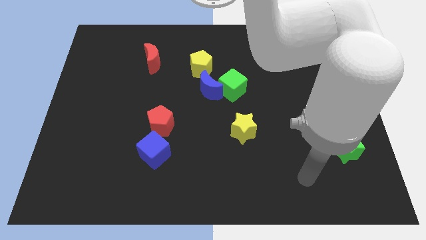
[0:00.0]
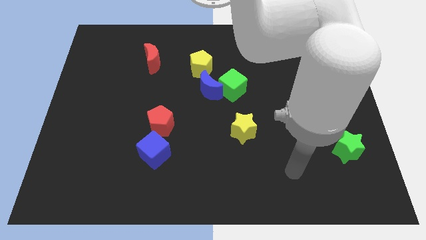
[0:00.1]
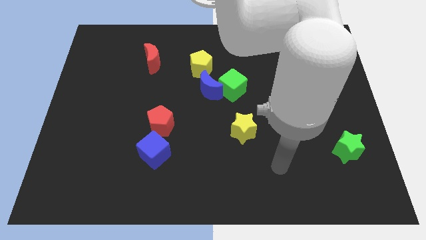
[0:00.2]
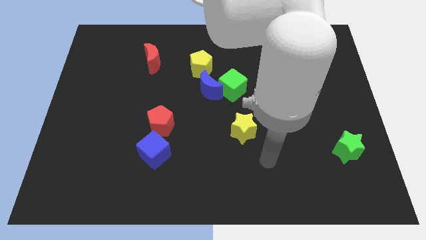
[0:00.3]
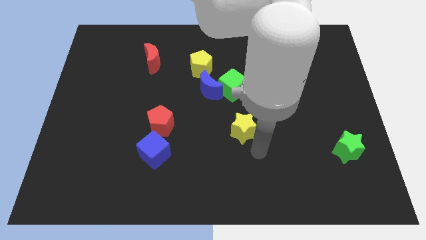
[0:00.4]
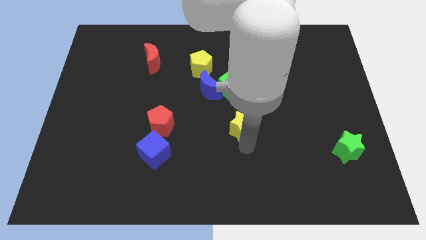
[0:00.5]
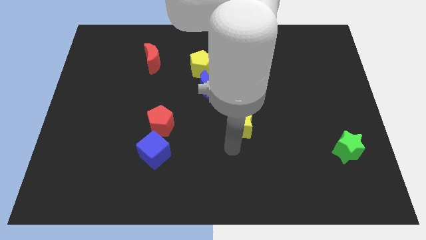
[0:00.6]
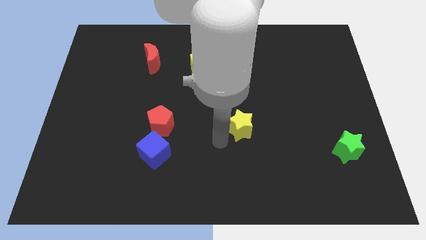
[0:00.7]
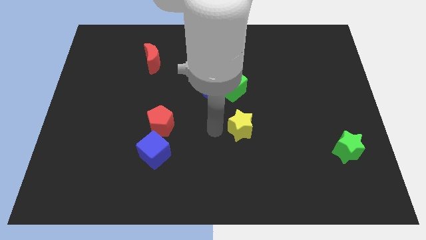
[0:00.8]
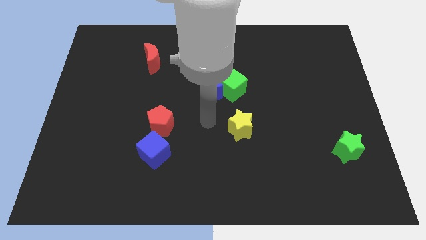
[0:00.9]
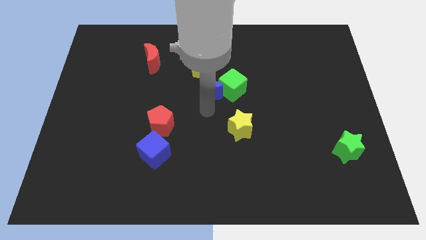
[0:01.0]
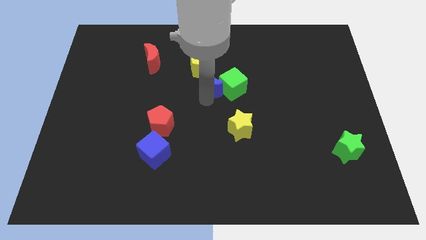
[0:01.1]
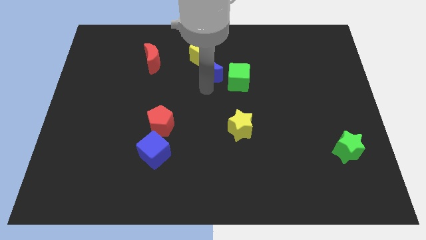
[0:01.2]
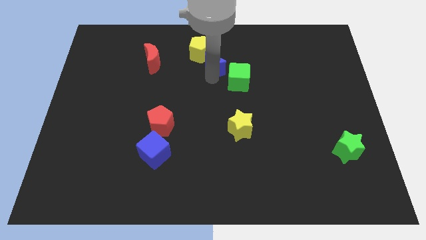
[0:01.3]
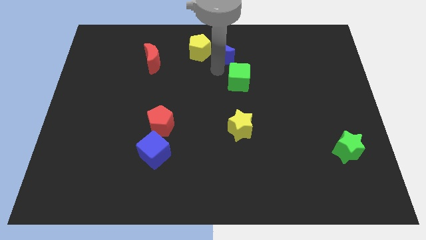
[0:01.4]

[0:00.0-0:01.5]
pull the green cube apart from the blue moon

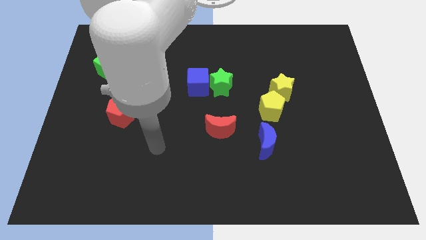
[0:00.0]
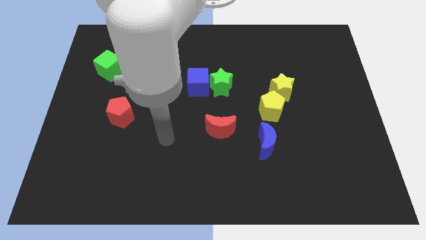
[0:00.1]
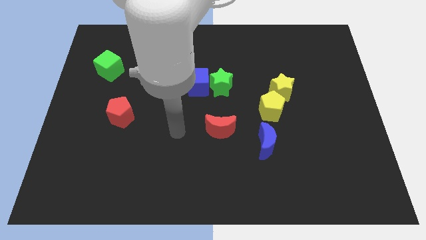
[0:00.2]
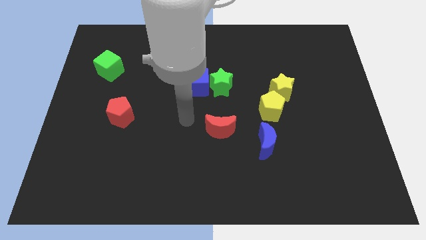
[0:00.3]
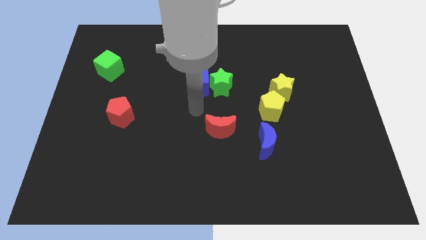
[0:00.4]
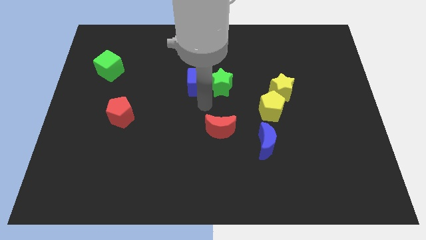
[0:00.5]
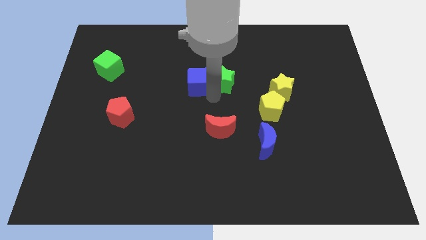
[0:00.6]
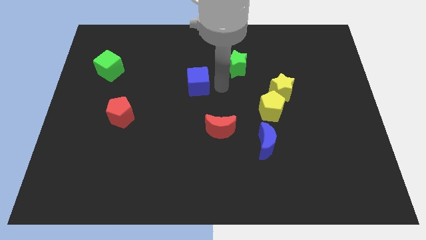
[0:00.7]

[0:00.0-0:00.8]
separate the blue cube from the green star

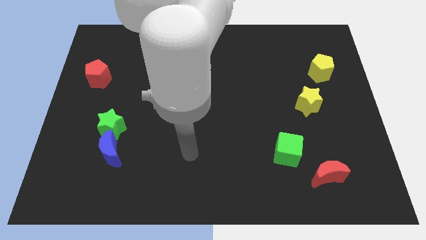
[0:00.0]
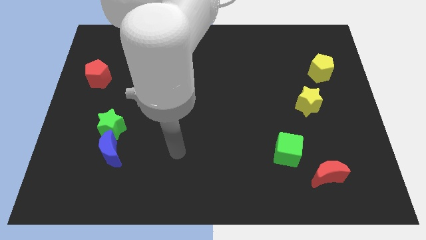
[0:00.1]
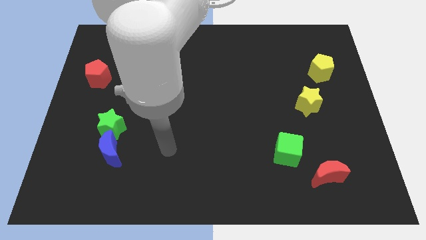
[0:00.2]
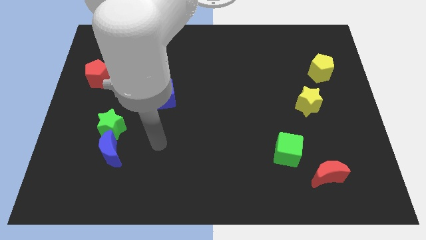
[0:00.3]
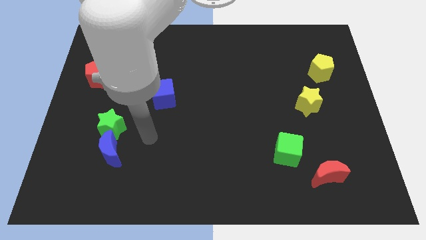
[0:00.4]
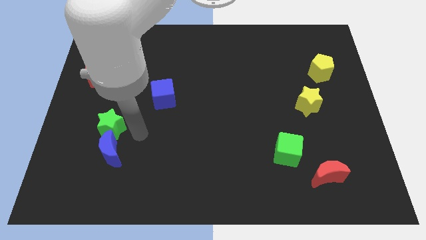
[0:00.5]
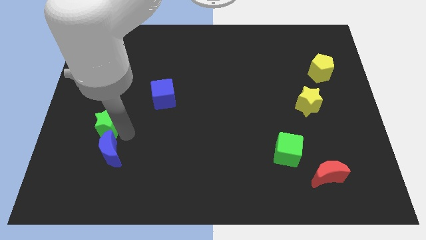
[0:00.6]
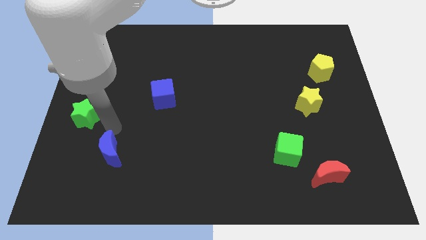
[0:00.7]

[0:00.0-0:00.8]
move the blue moon away from the green star

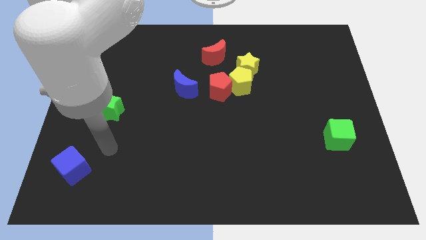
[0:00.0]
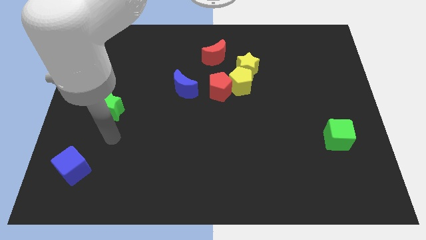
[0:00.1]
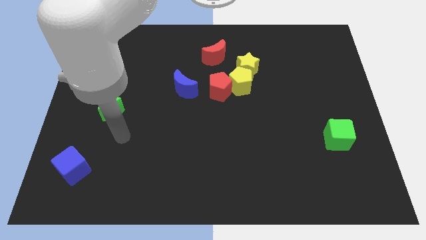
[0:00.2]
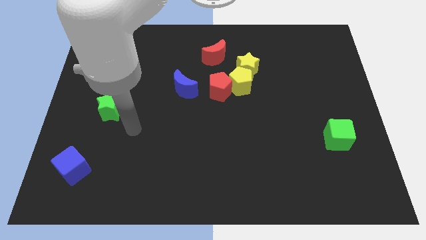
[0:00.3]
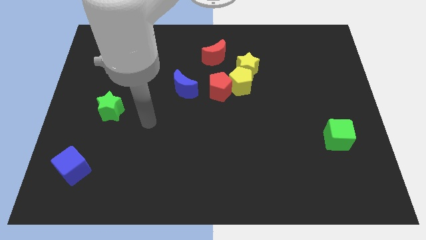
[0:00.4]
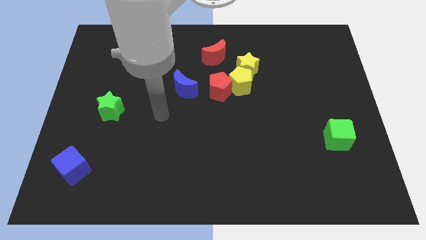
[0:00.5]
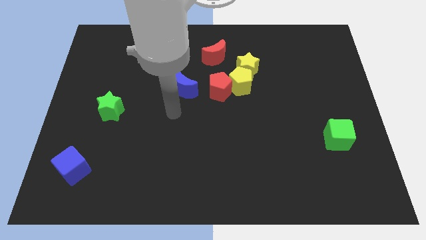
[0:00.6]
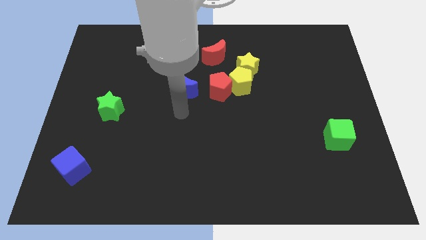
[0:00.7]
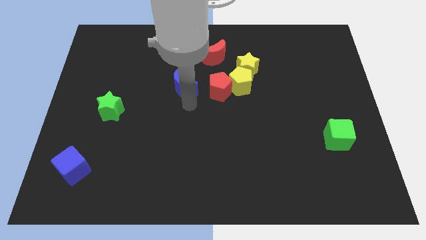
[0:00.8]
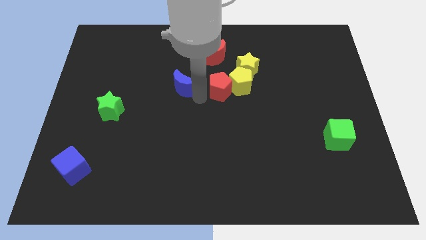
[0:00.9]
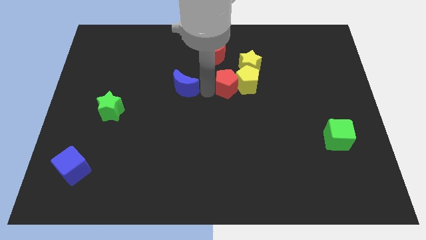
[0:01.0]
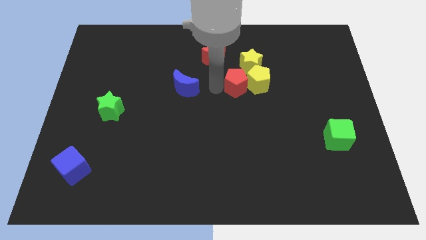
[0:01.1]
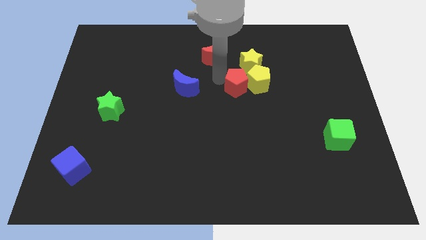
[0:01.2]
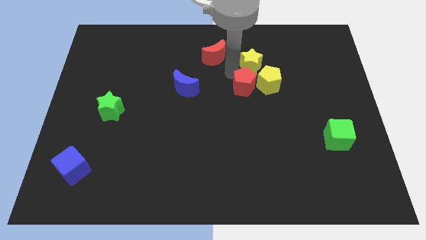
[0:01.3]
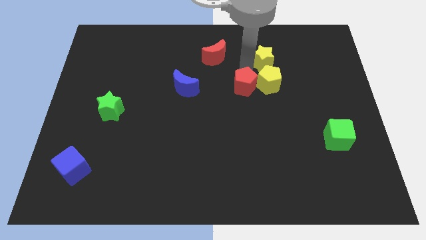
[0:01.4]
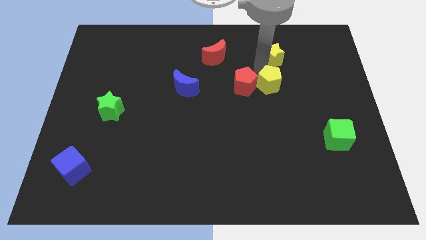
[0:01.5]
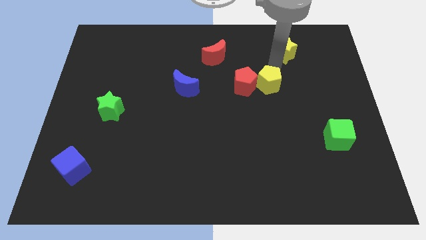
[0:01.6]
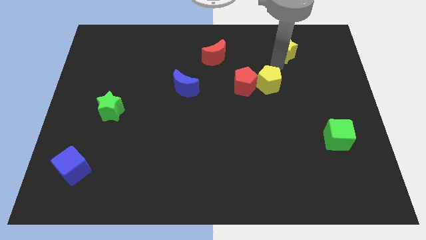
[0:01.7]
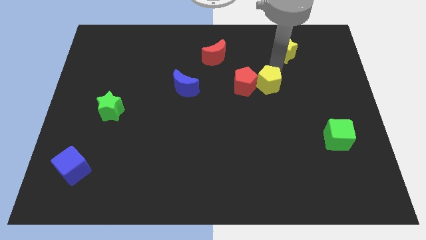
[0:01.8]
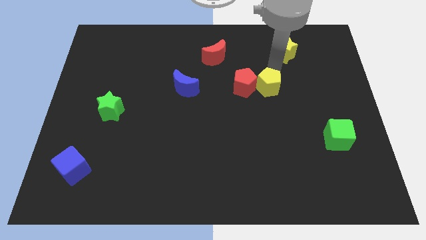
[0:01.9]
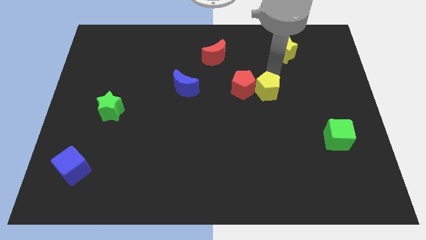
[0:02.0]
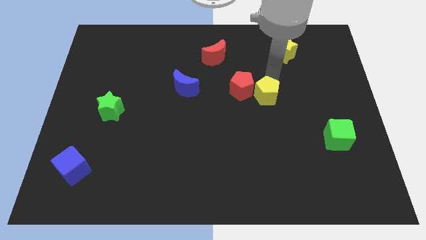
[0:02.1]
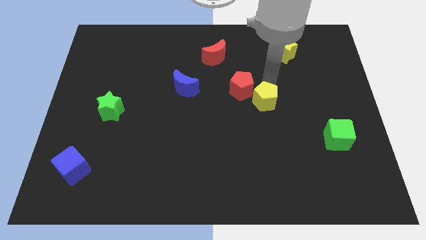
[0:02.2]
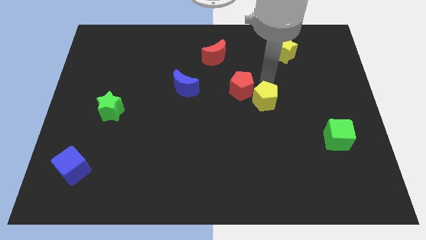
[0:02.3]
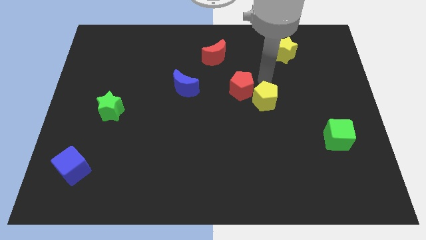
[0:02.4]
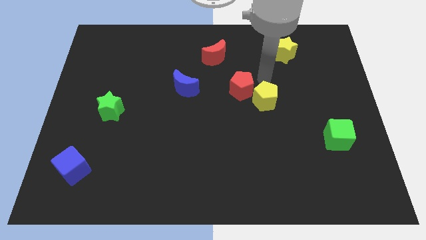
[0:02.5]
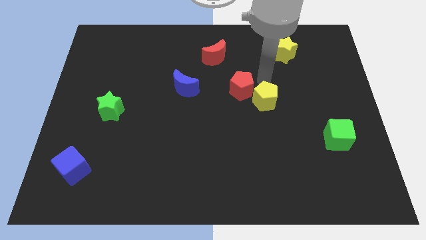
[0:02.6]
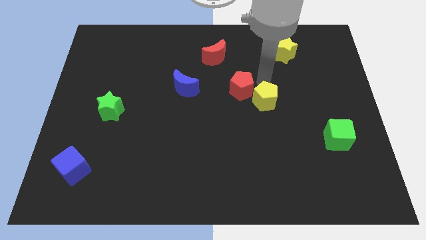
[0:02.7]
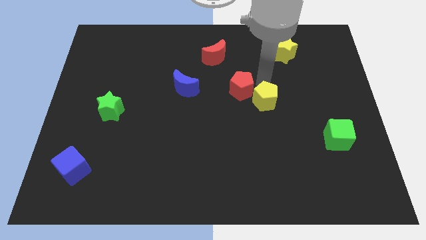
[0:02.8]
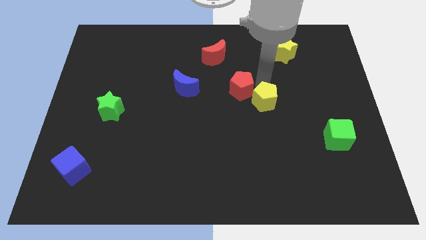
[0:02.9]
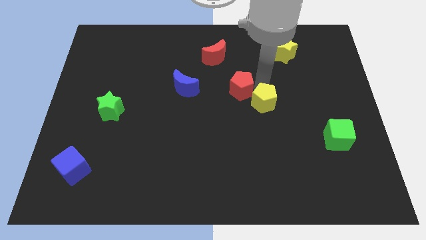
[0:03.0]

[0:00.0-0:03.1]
separate the yellow pentagon from the yellow star and red pentagon

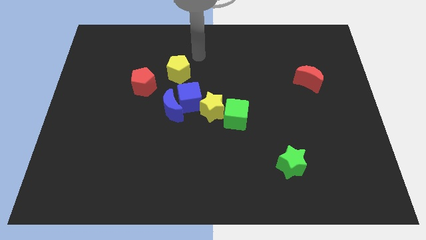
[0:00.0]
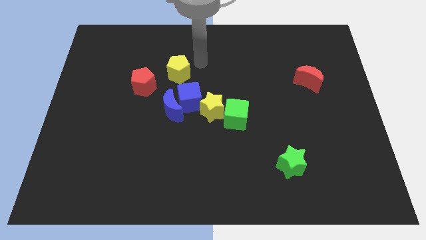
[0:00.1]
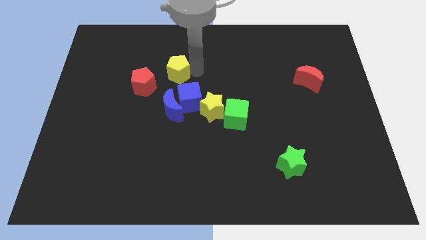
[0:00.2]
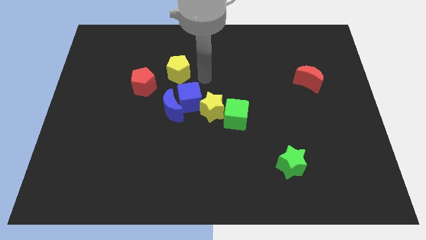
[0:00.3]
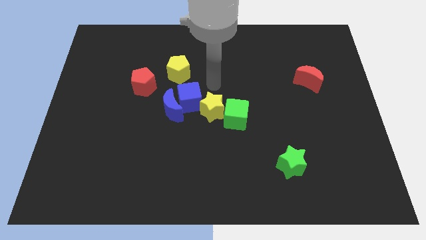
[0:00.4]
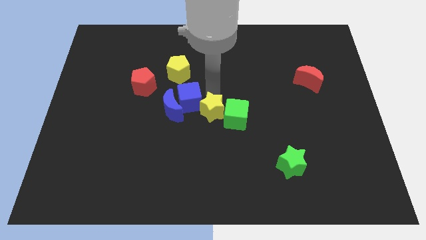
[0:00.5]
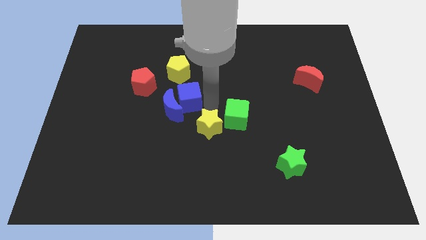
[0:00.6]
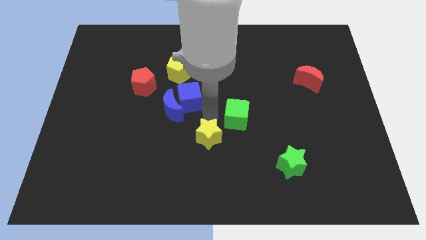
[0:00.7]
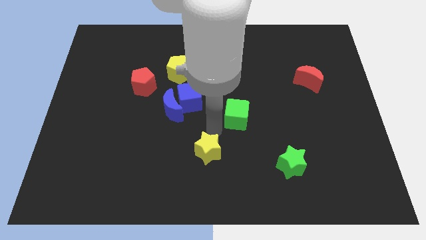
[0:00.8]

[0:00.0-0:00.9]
pull the green cube apart from the yellow star

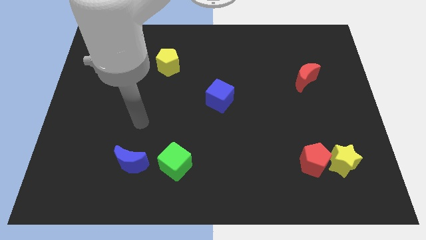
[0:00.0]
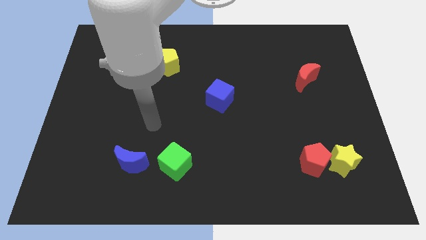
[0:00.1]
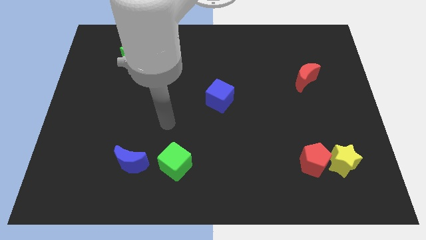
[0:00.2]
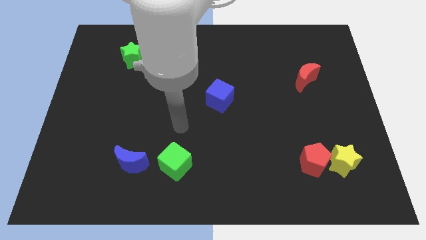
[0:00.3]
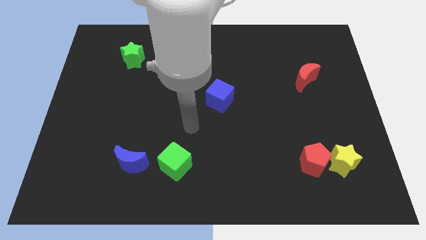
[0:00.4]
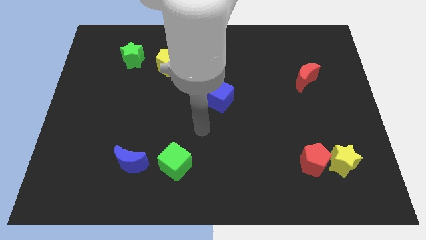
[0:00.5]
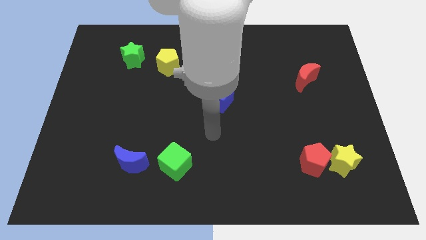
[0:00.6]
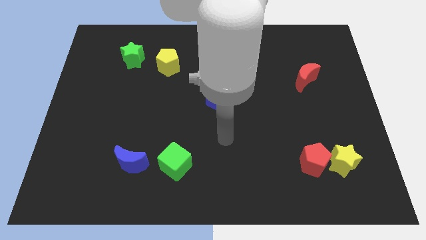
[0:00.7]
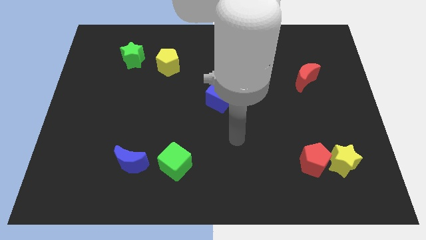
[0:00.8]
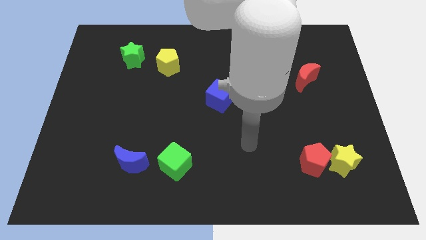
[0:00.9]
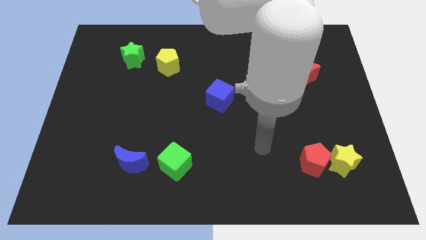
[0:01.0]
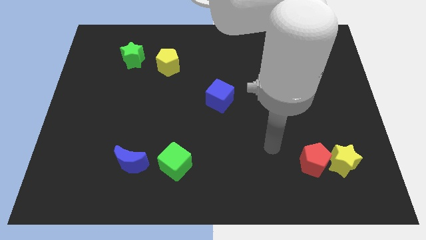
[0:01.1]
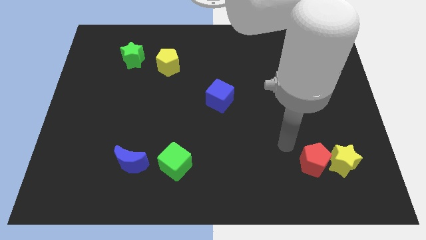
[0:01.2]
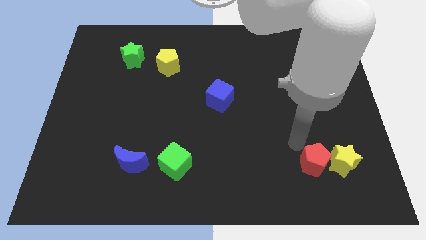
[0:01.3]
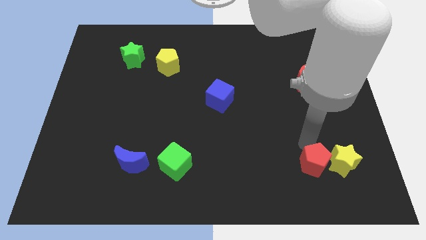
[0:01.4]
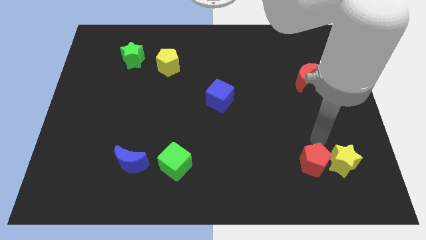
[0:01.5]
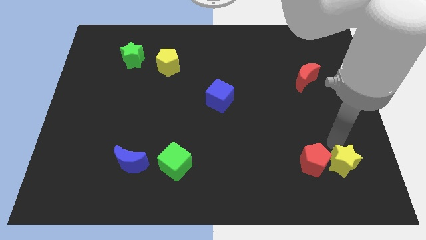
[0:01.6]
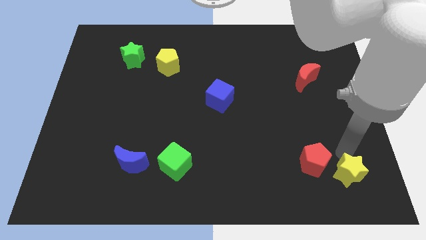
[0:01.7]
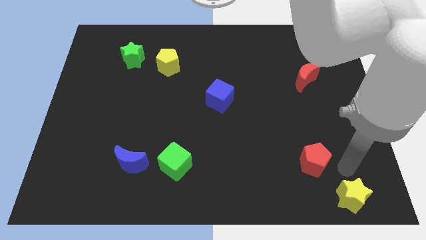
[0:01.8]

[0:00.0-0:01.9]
pull the red pentagon apart from the yellow star

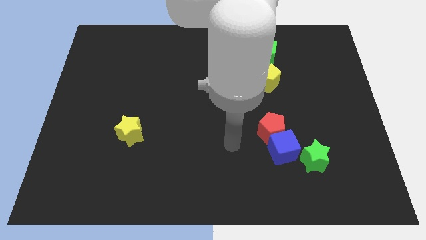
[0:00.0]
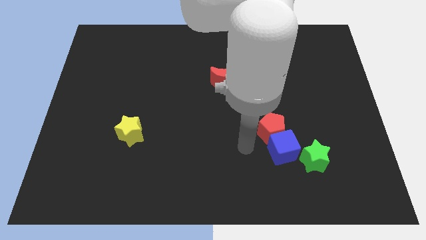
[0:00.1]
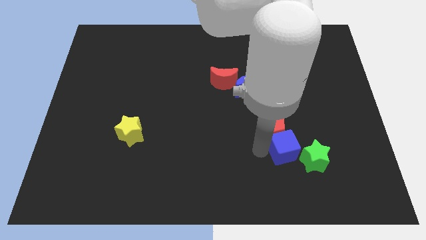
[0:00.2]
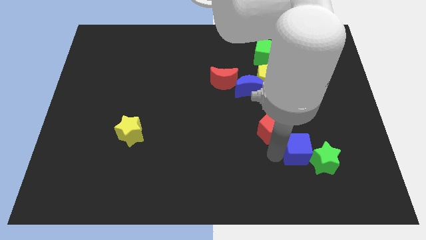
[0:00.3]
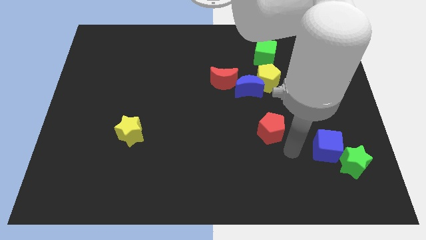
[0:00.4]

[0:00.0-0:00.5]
move the red pentagon away from the blue cube
